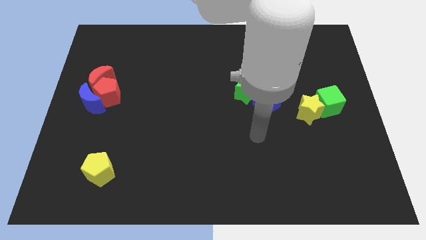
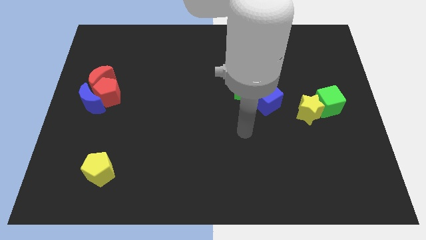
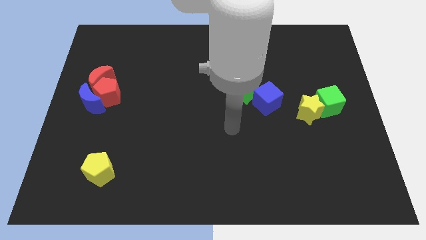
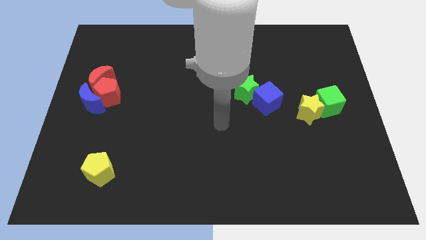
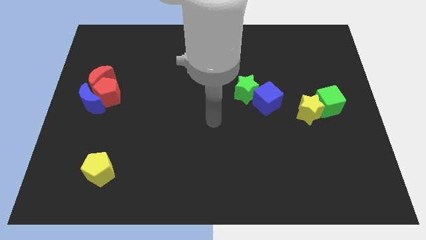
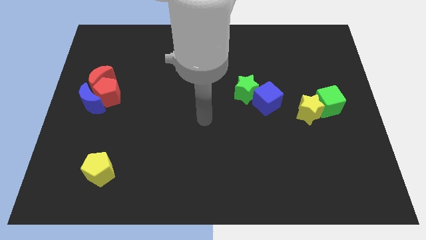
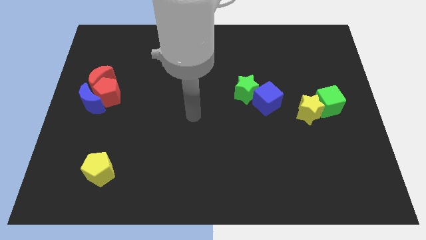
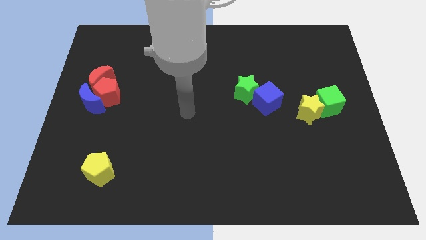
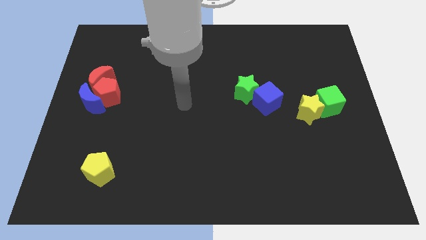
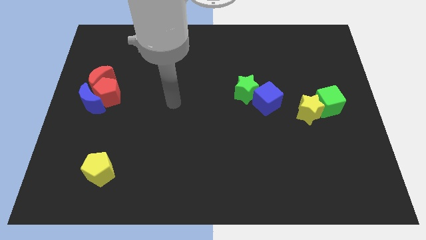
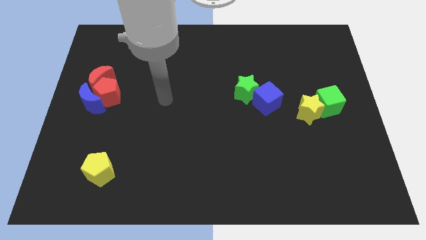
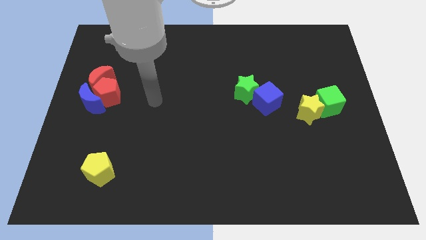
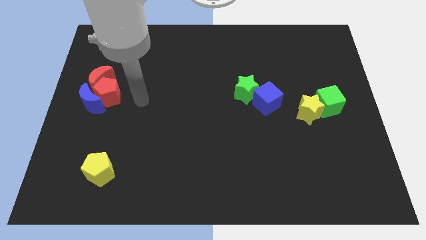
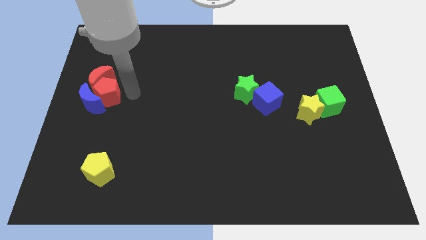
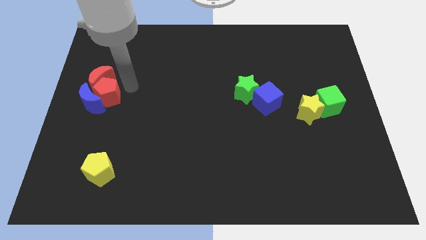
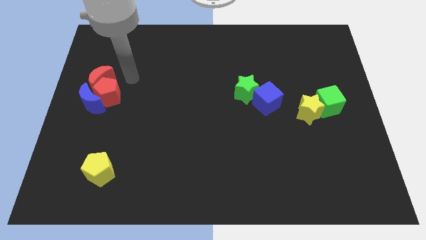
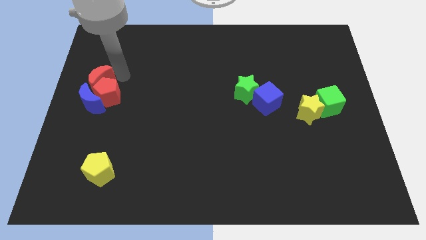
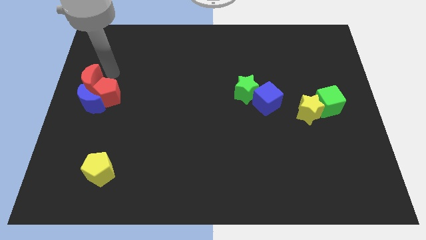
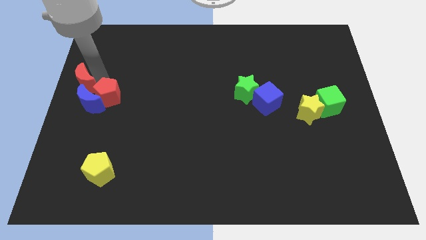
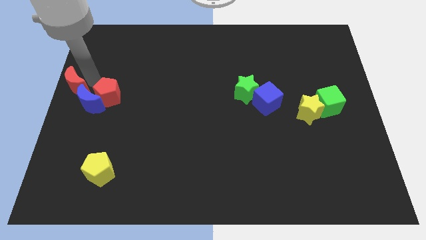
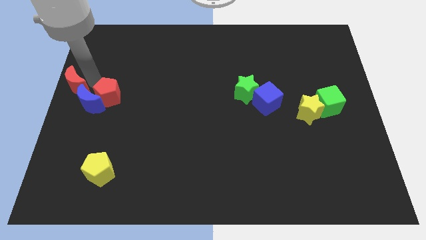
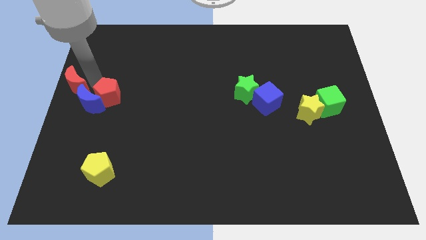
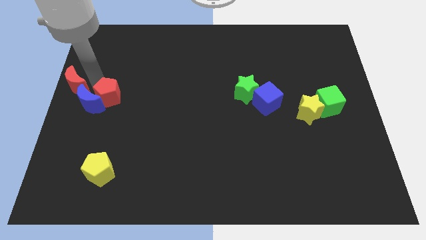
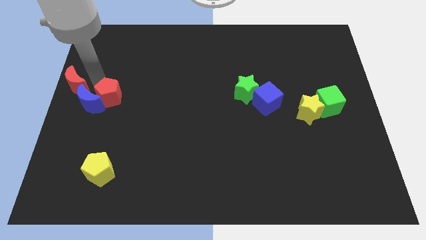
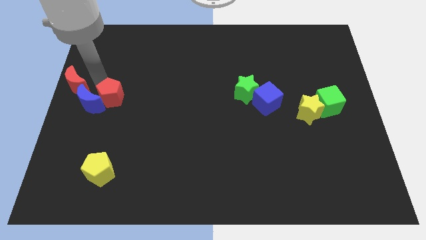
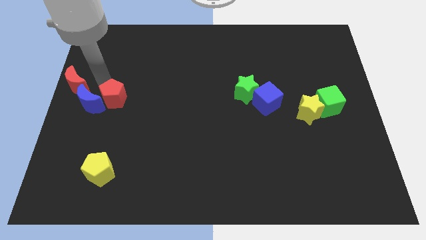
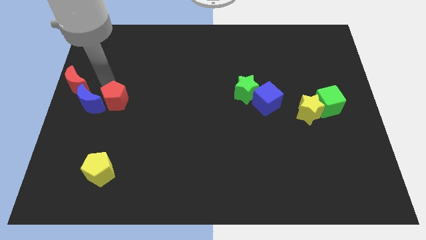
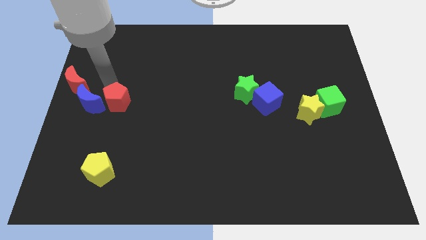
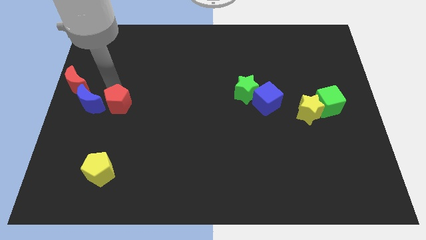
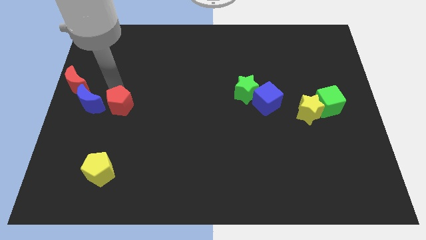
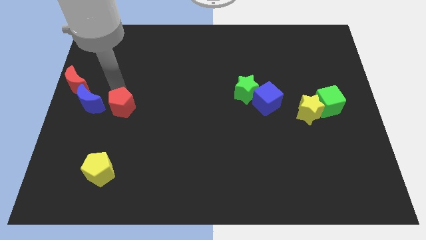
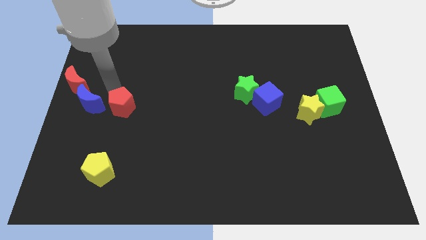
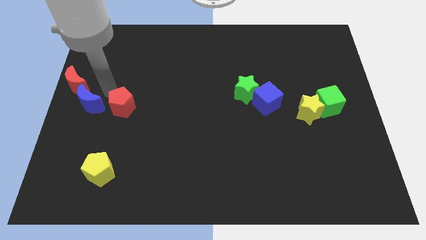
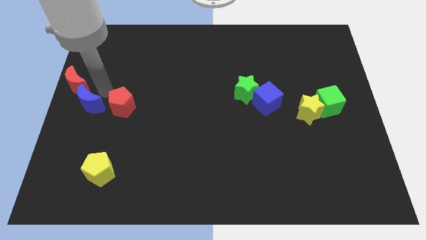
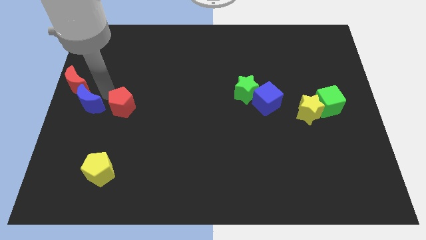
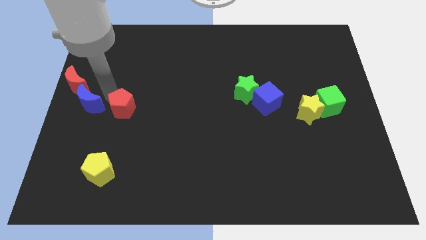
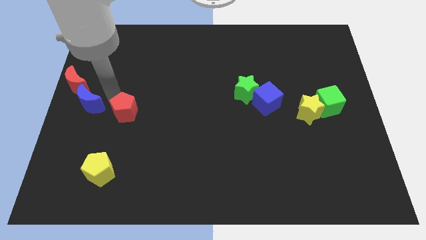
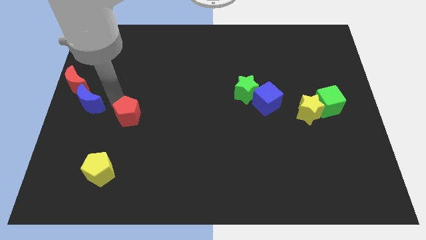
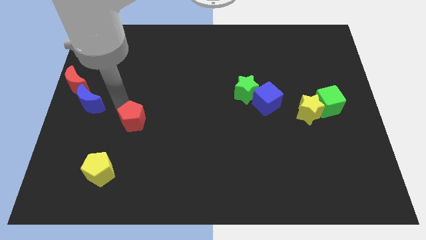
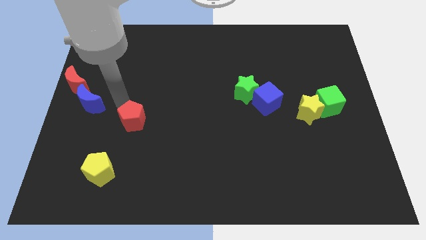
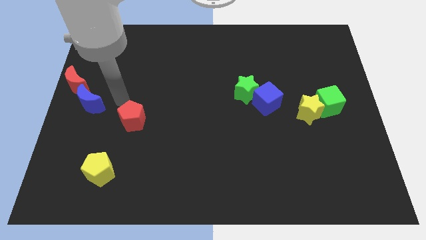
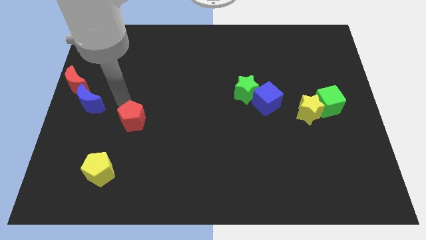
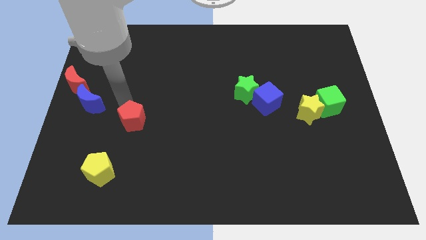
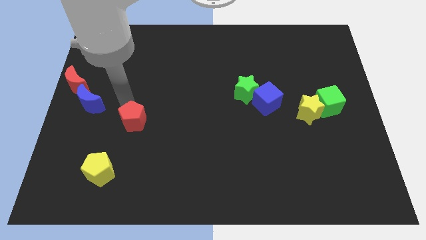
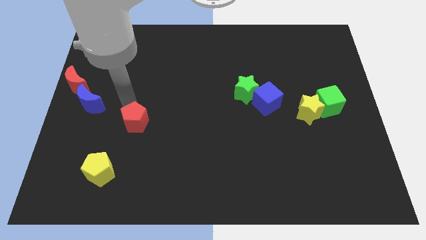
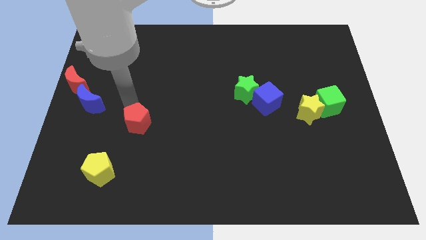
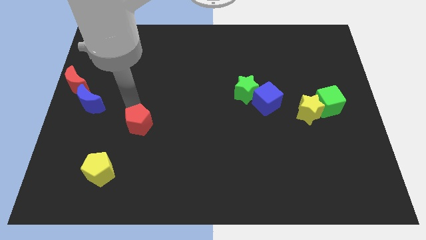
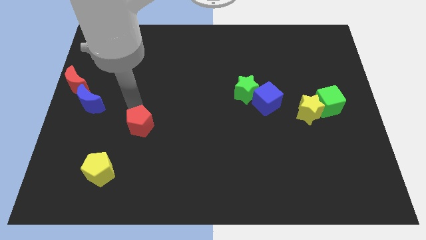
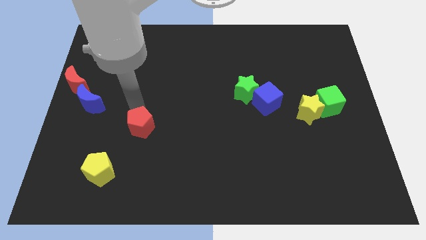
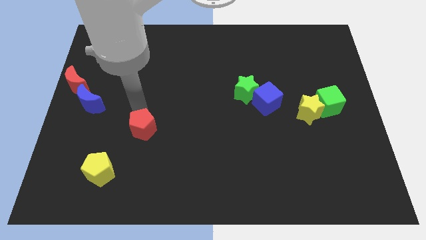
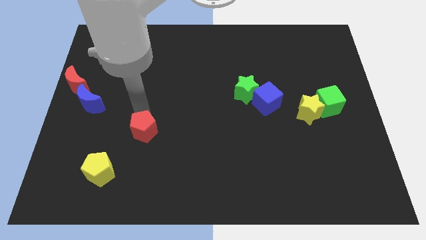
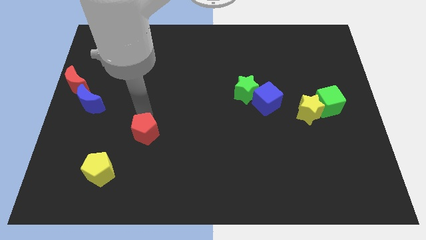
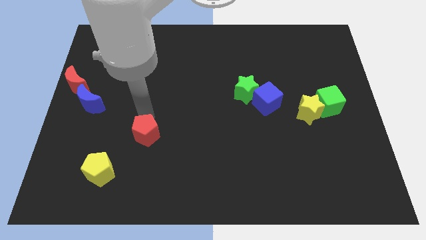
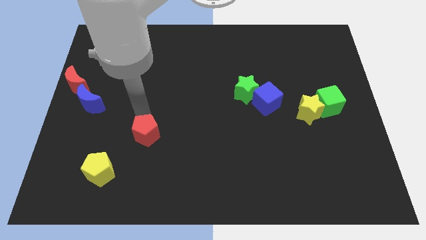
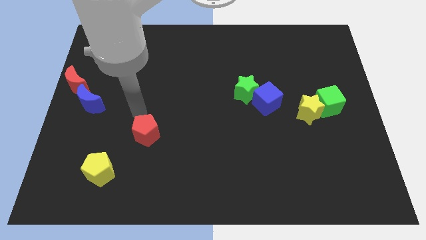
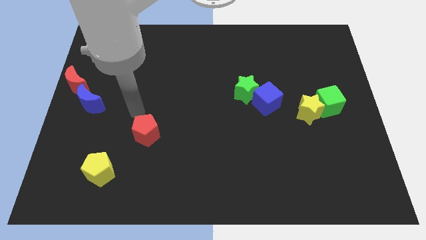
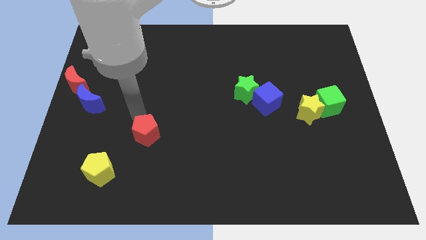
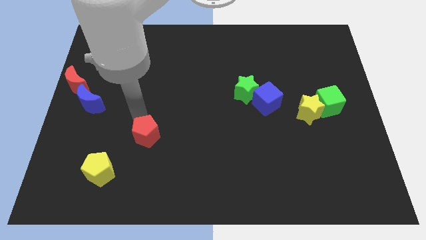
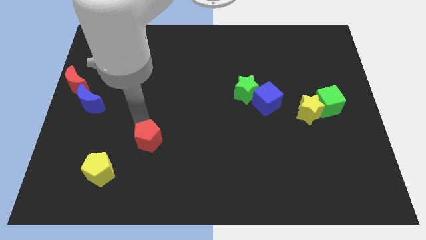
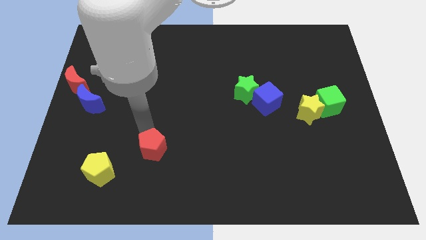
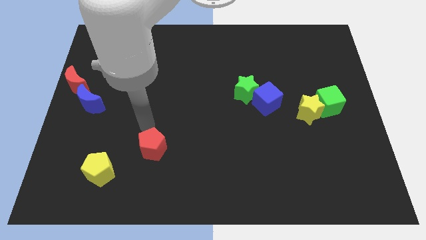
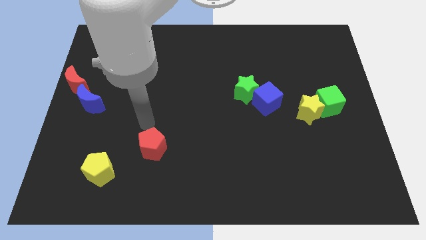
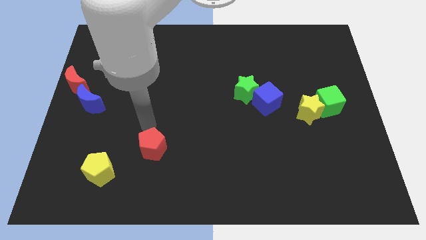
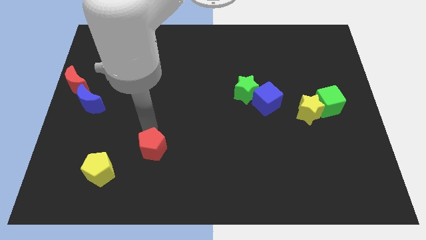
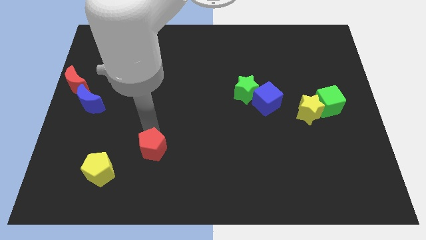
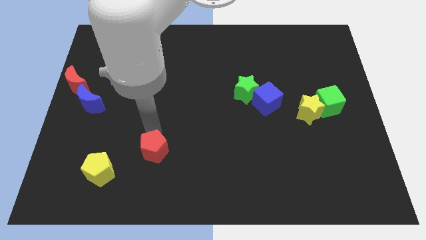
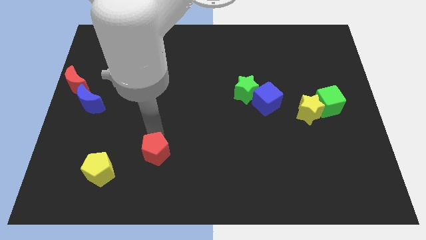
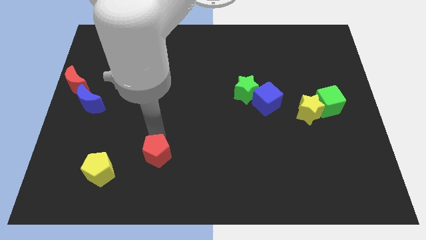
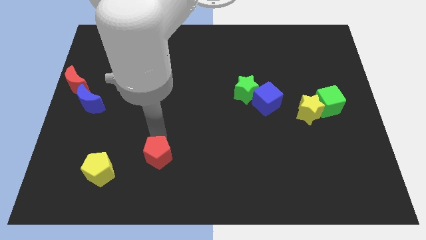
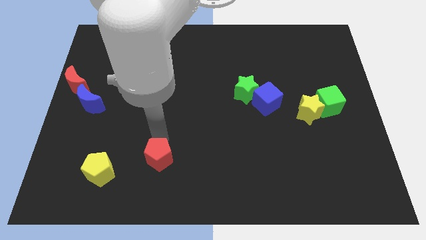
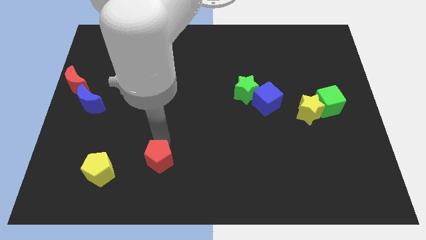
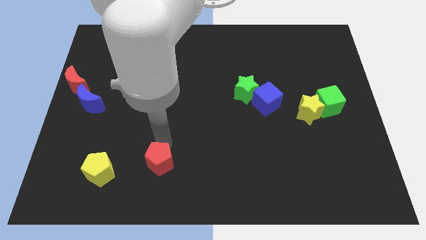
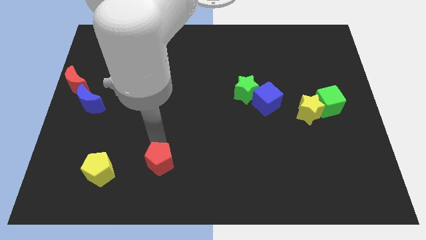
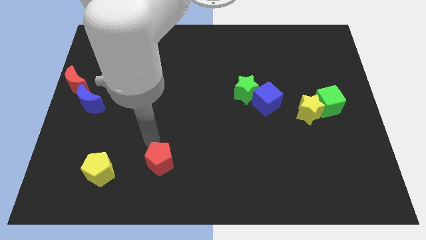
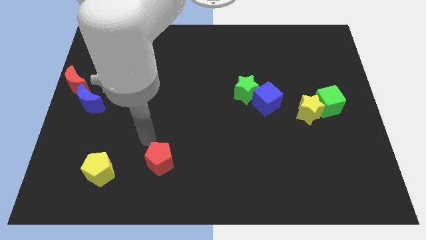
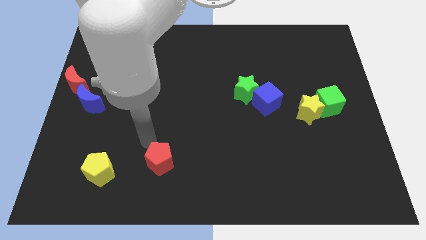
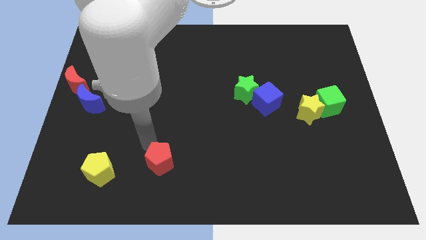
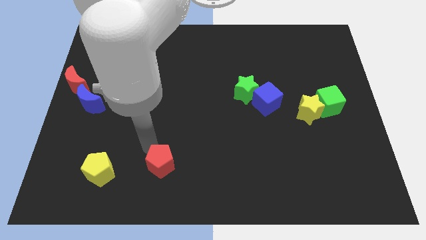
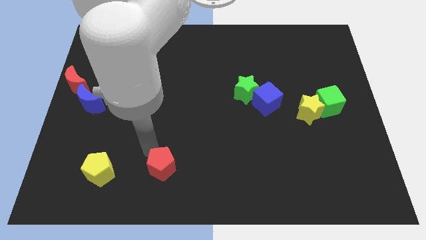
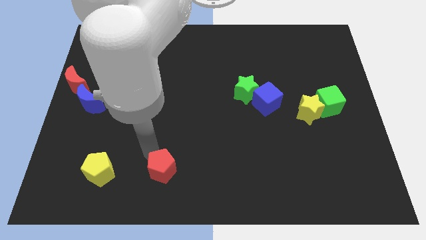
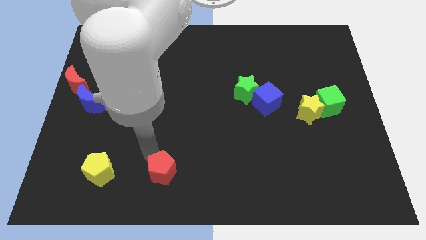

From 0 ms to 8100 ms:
push the red pentagon to the bottom side
